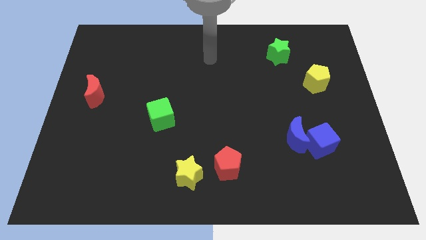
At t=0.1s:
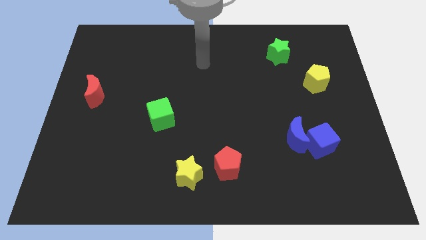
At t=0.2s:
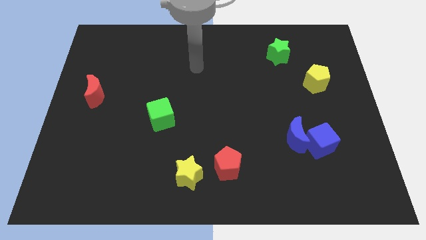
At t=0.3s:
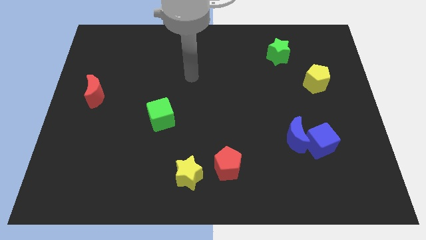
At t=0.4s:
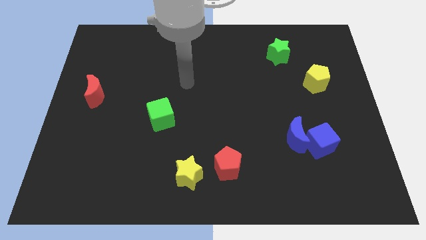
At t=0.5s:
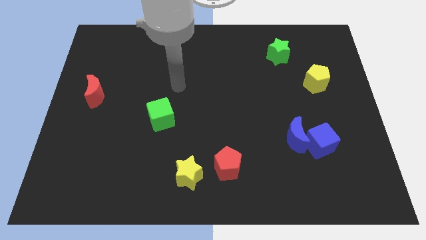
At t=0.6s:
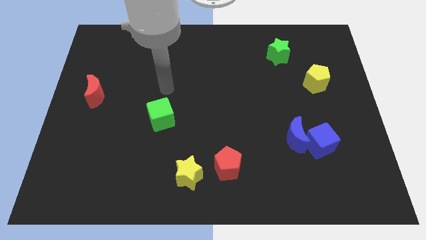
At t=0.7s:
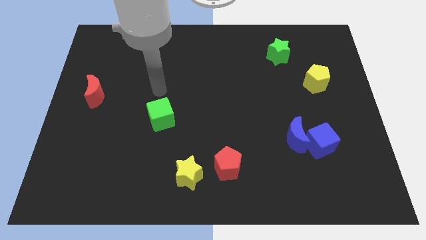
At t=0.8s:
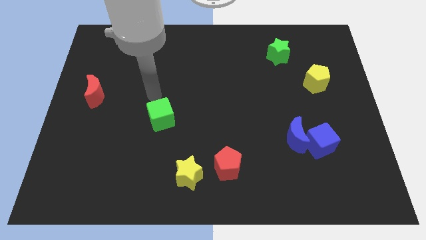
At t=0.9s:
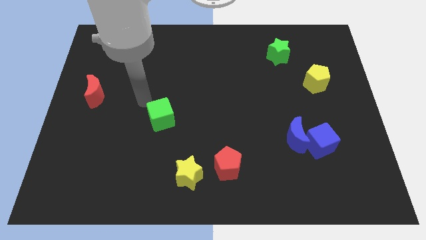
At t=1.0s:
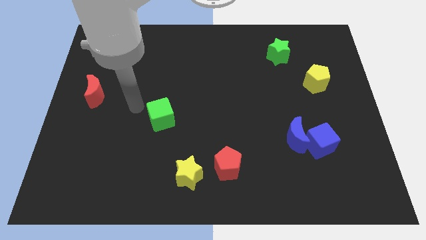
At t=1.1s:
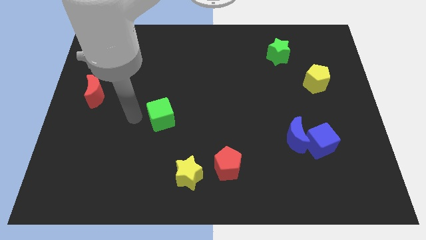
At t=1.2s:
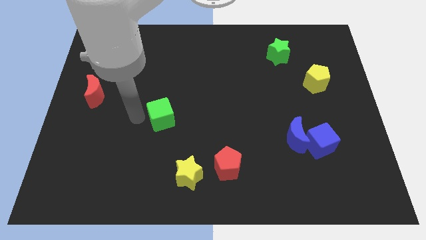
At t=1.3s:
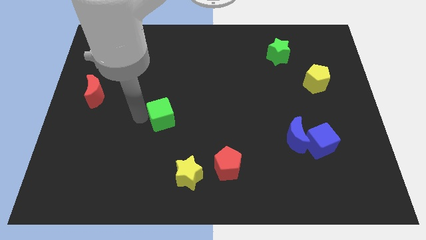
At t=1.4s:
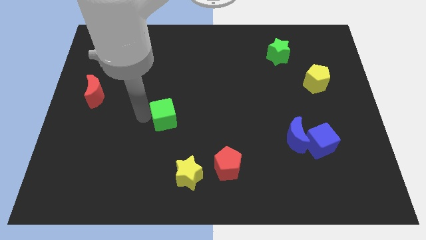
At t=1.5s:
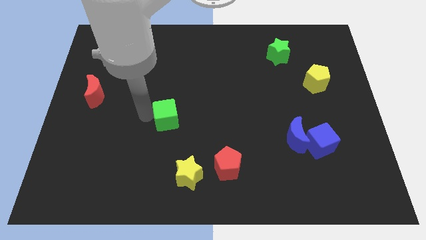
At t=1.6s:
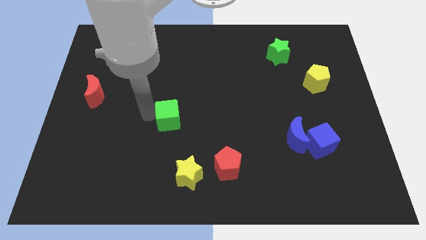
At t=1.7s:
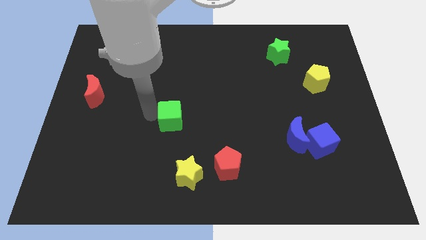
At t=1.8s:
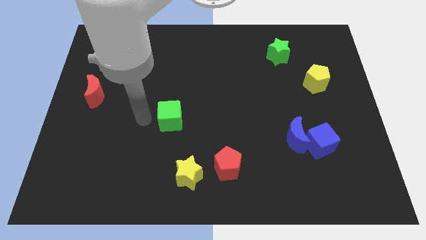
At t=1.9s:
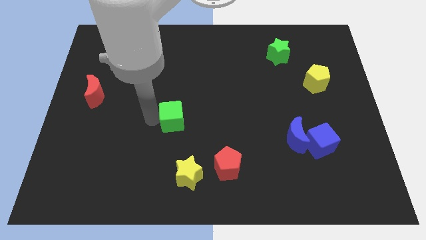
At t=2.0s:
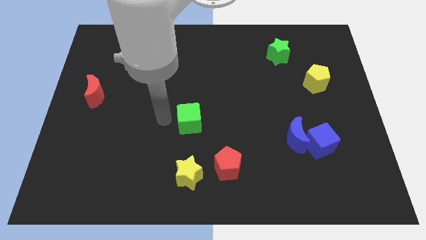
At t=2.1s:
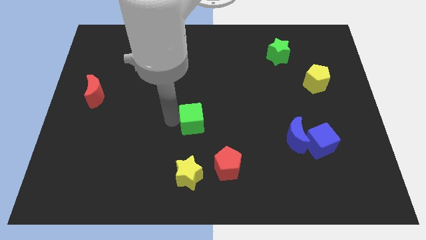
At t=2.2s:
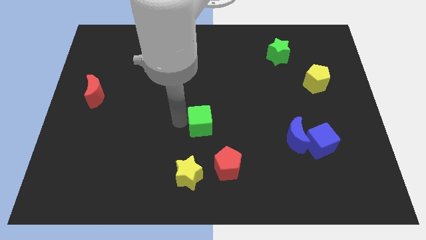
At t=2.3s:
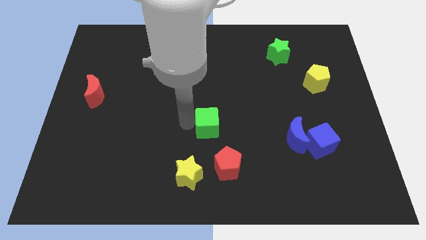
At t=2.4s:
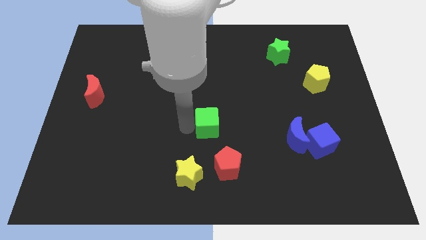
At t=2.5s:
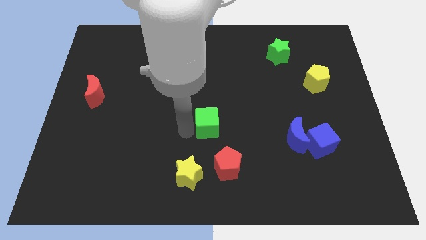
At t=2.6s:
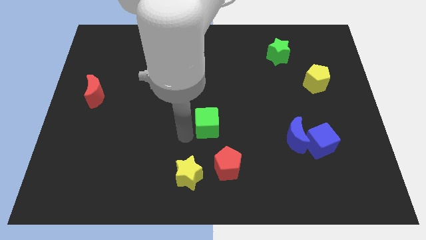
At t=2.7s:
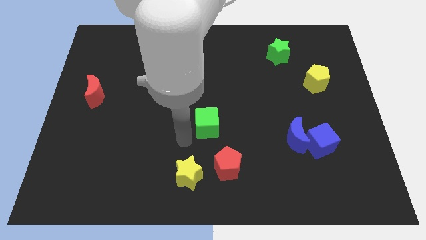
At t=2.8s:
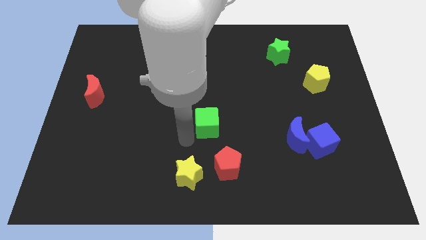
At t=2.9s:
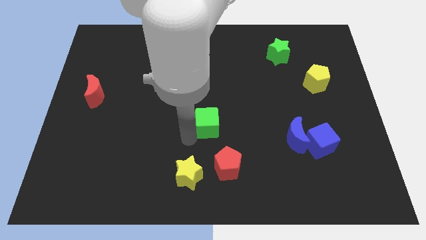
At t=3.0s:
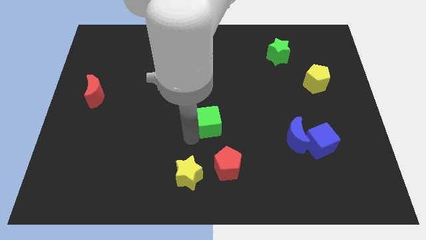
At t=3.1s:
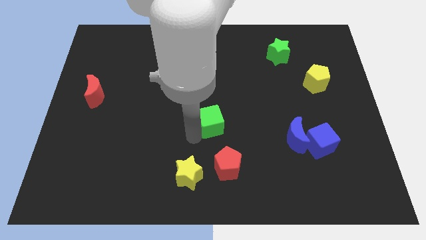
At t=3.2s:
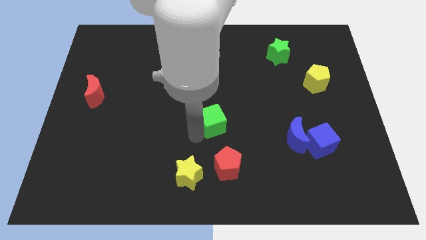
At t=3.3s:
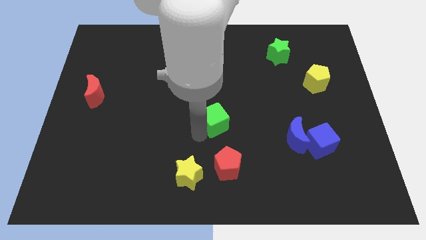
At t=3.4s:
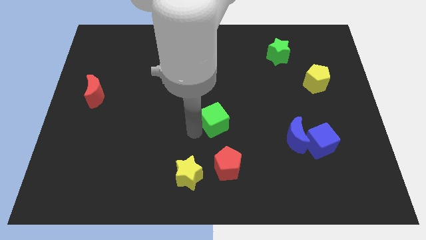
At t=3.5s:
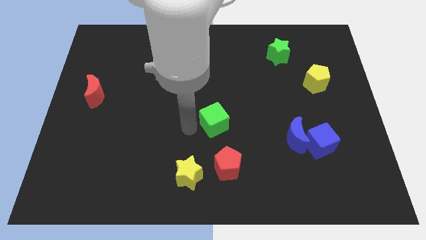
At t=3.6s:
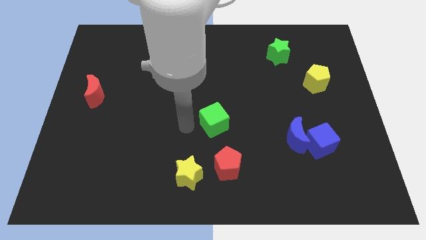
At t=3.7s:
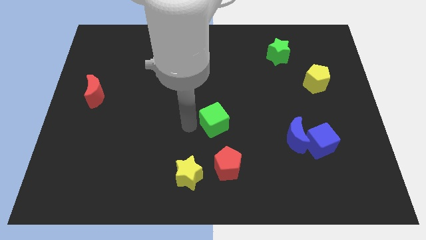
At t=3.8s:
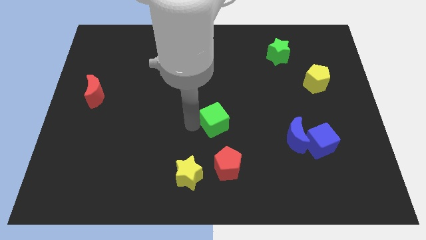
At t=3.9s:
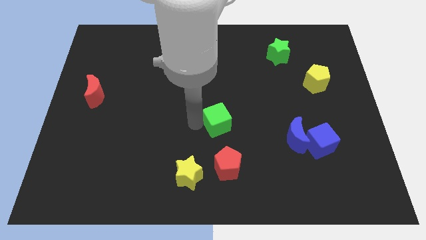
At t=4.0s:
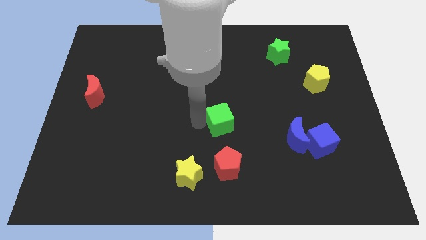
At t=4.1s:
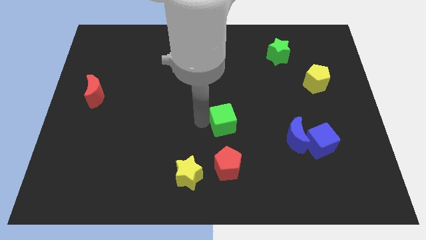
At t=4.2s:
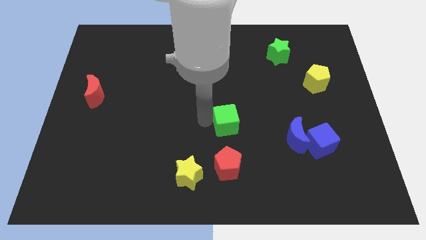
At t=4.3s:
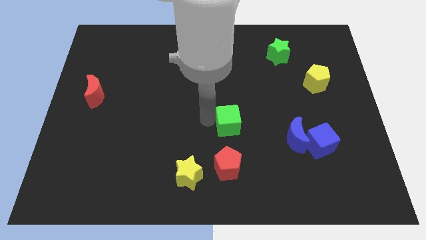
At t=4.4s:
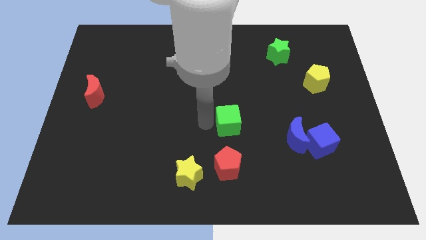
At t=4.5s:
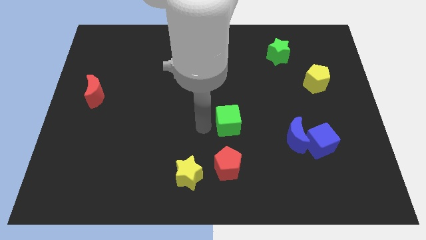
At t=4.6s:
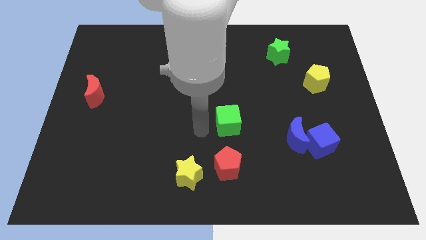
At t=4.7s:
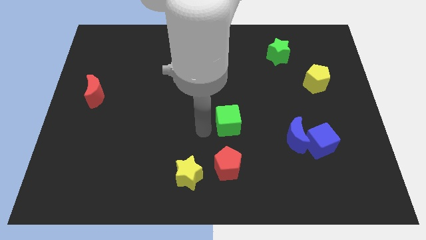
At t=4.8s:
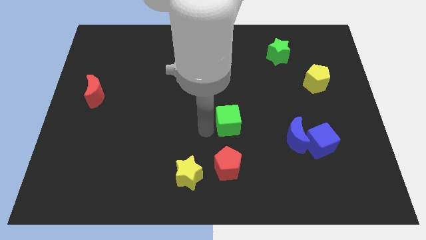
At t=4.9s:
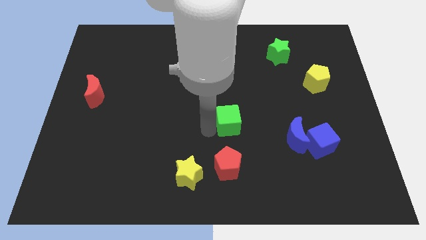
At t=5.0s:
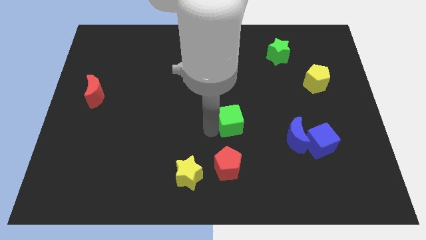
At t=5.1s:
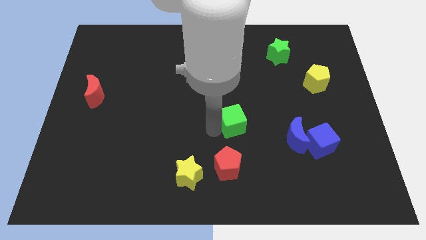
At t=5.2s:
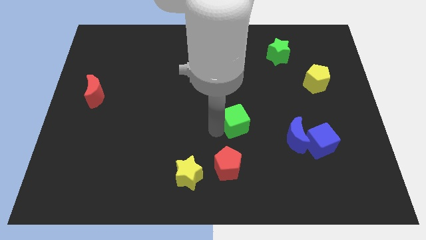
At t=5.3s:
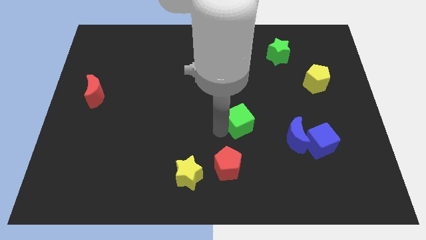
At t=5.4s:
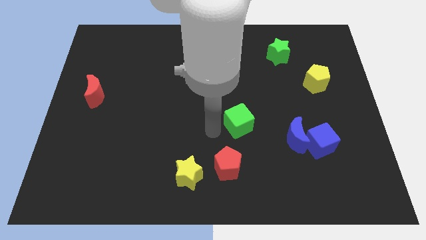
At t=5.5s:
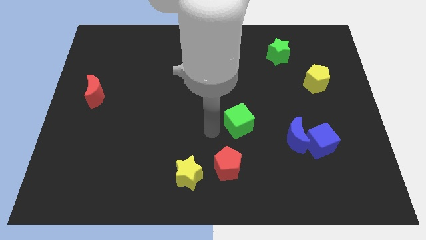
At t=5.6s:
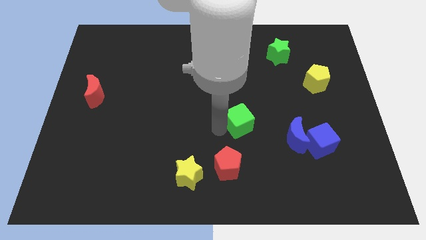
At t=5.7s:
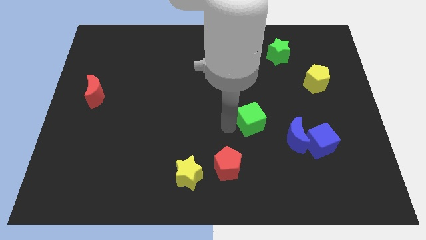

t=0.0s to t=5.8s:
push the green cube to the right

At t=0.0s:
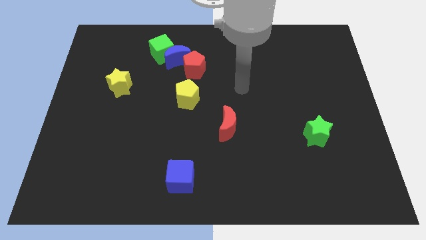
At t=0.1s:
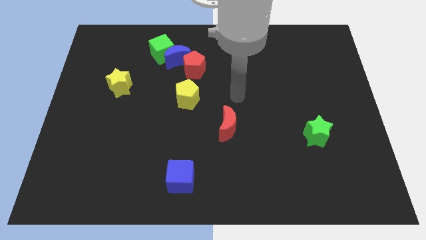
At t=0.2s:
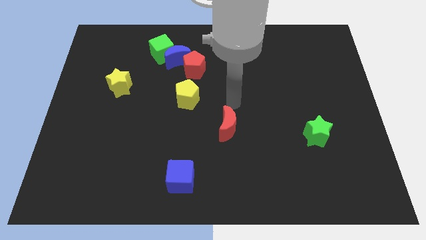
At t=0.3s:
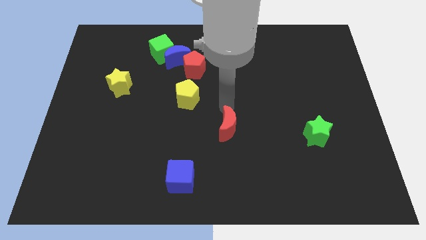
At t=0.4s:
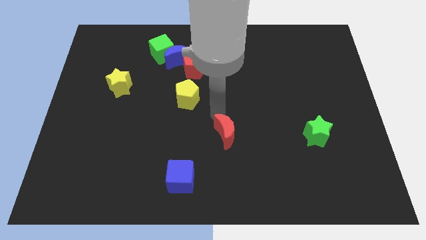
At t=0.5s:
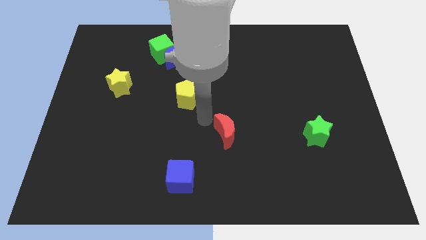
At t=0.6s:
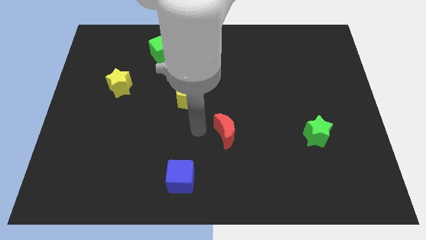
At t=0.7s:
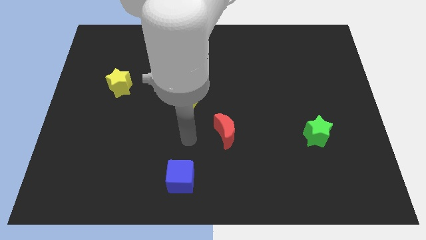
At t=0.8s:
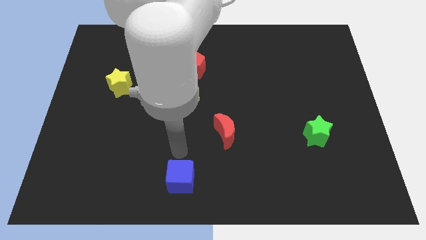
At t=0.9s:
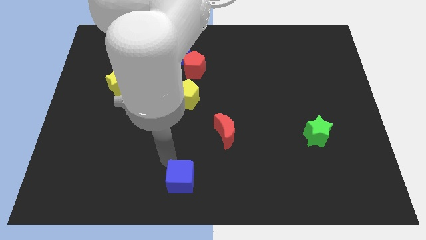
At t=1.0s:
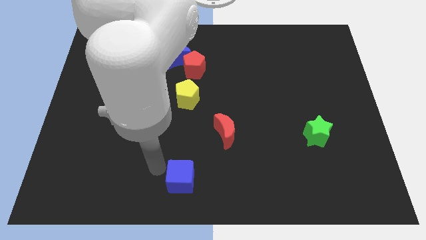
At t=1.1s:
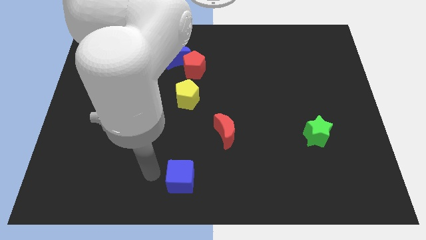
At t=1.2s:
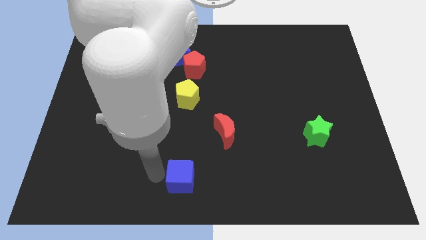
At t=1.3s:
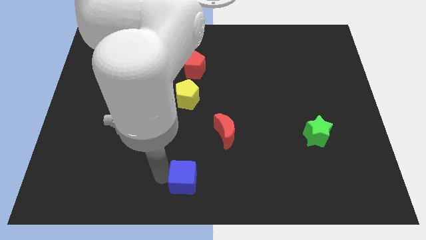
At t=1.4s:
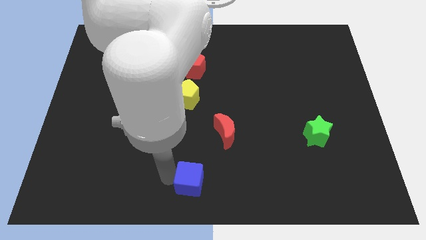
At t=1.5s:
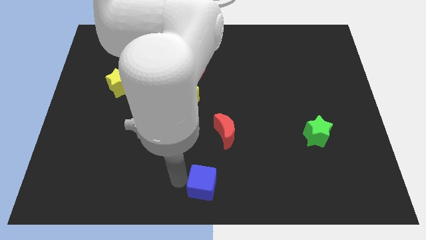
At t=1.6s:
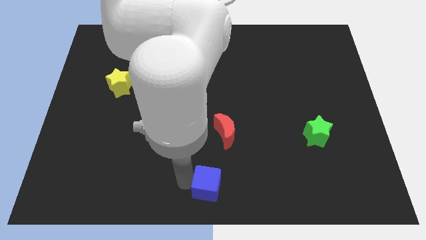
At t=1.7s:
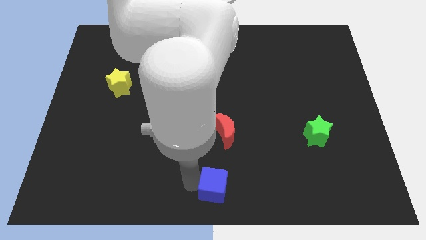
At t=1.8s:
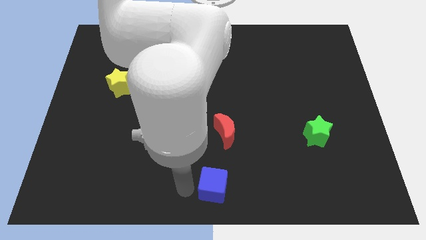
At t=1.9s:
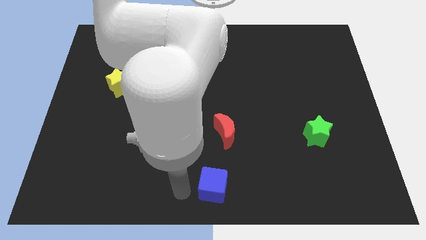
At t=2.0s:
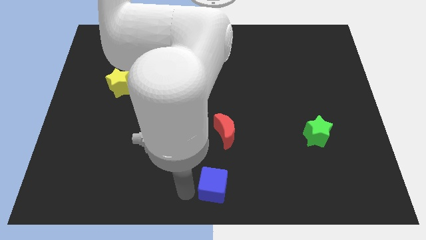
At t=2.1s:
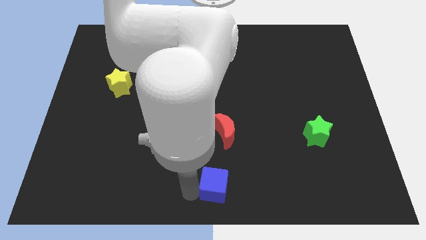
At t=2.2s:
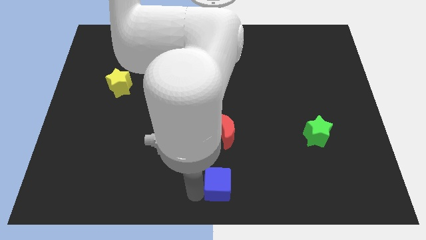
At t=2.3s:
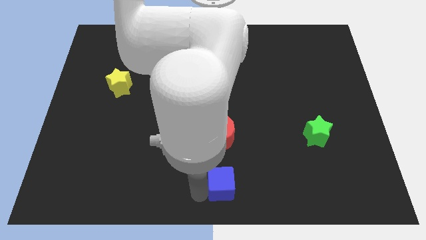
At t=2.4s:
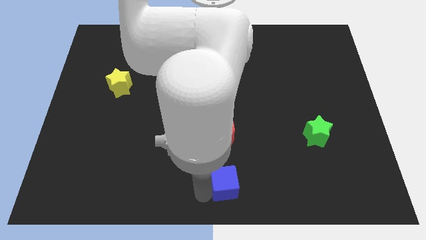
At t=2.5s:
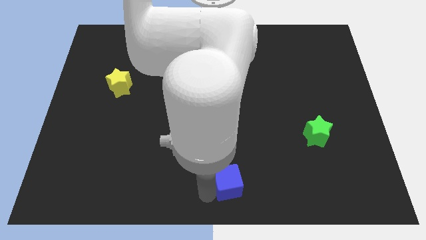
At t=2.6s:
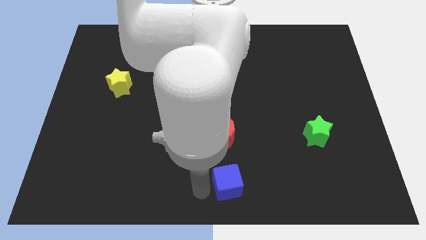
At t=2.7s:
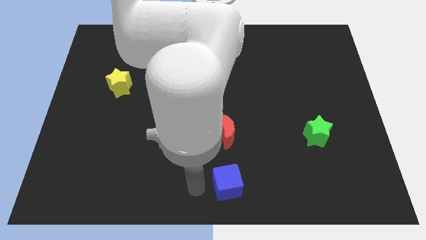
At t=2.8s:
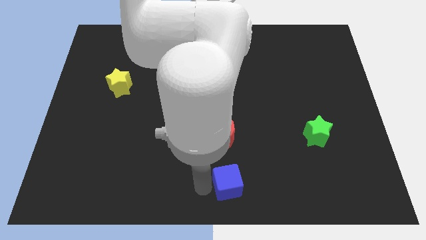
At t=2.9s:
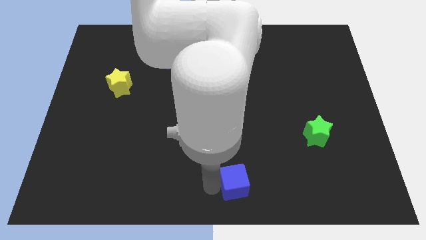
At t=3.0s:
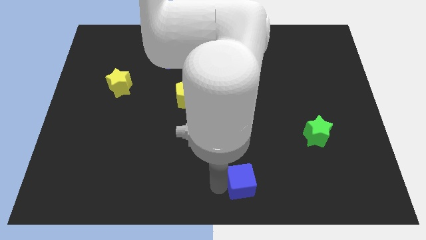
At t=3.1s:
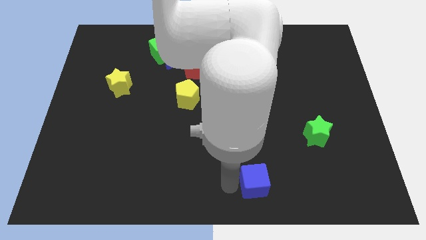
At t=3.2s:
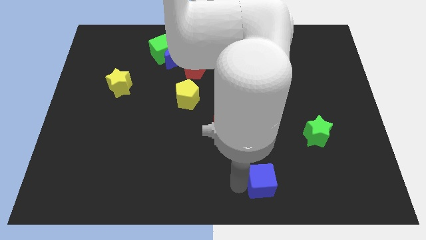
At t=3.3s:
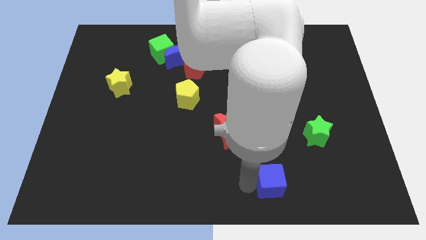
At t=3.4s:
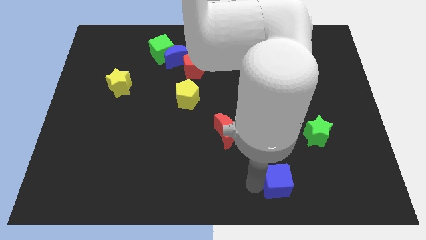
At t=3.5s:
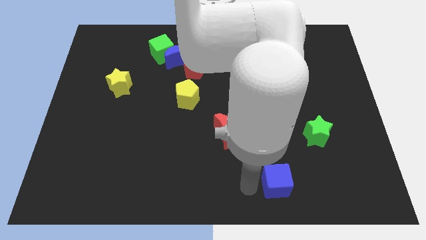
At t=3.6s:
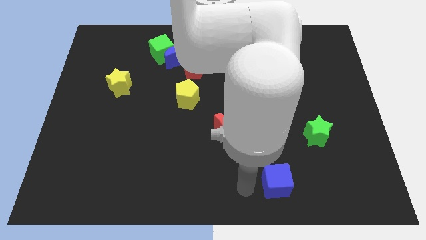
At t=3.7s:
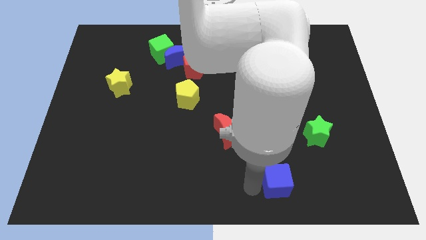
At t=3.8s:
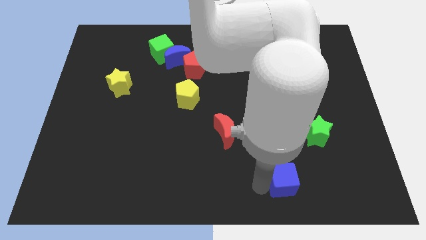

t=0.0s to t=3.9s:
move the blue cube to the right
